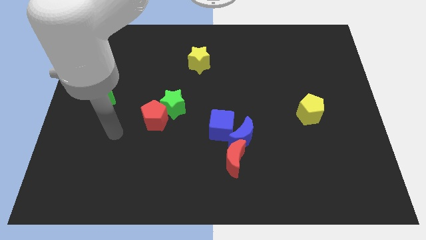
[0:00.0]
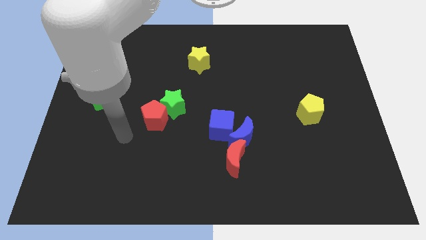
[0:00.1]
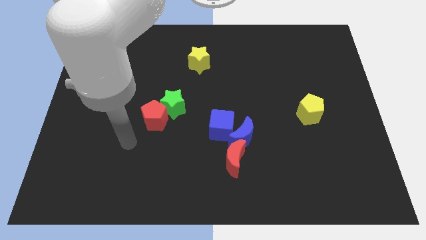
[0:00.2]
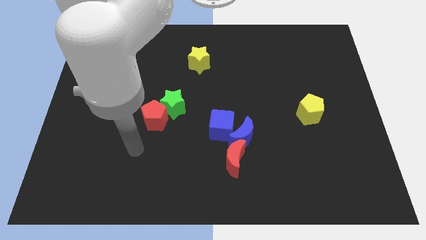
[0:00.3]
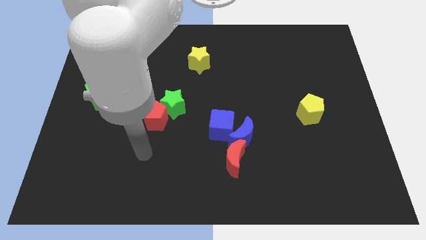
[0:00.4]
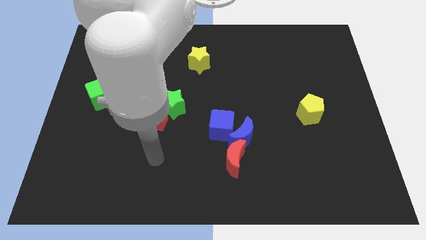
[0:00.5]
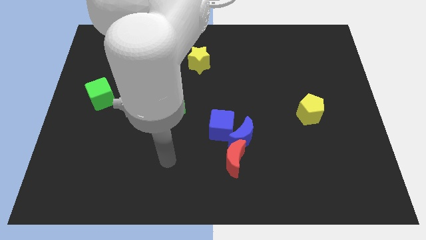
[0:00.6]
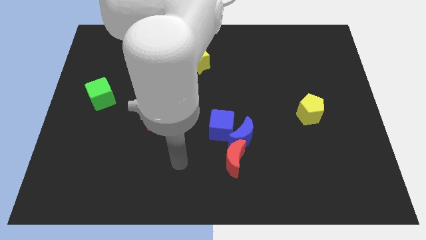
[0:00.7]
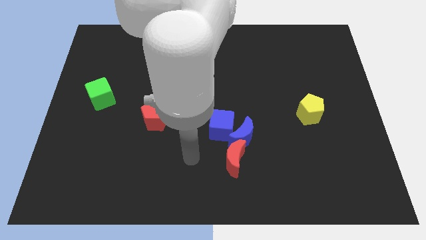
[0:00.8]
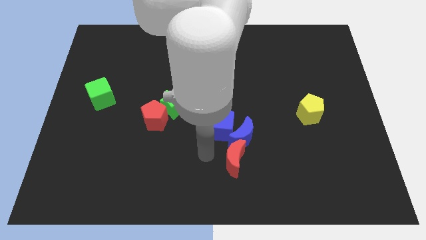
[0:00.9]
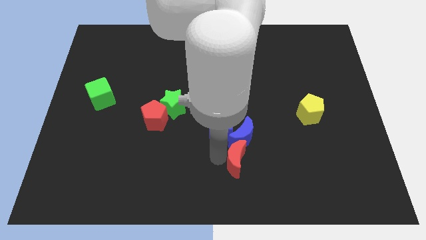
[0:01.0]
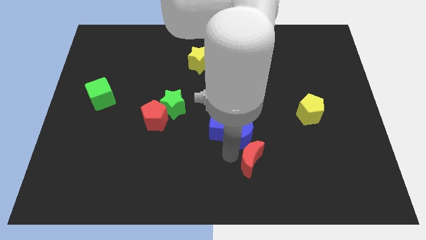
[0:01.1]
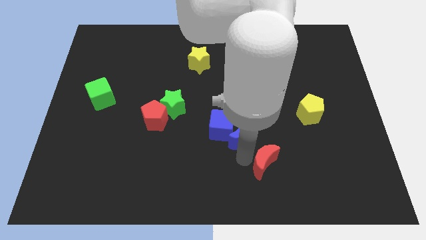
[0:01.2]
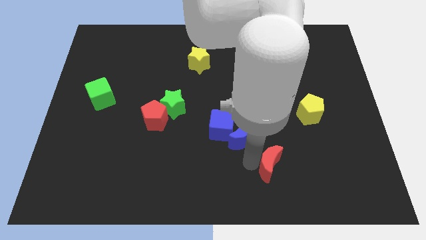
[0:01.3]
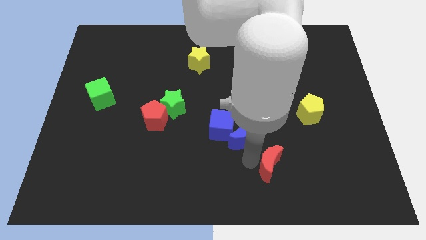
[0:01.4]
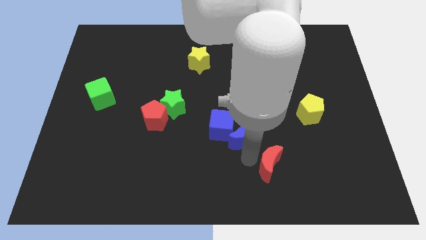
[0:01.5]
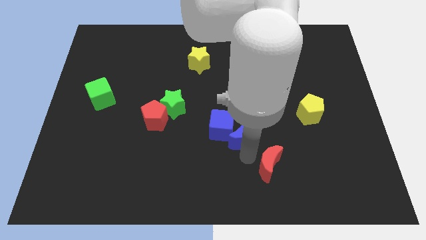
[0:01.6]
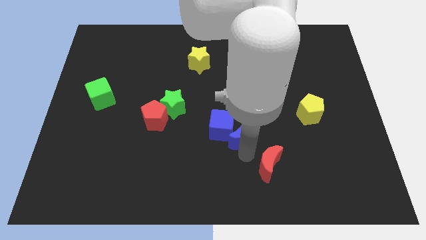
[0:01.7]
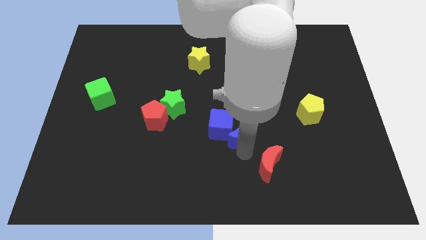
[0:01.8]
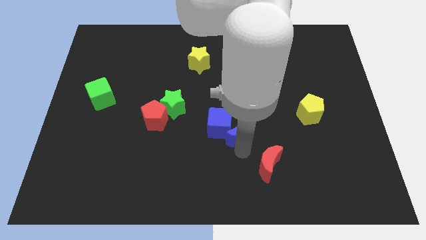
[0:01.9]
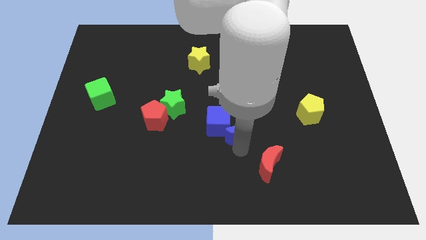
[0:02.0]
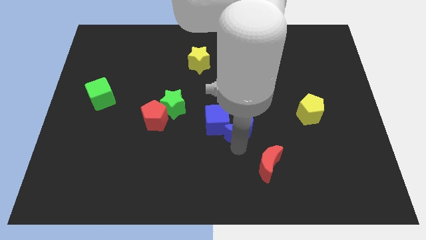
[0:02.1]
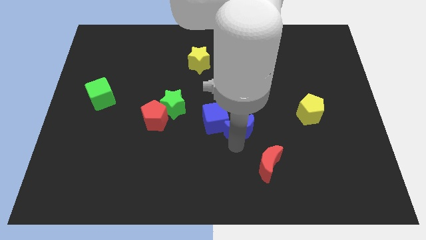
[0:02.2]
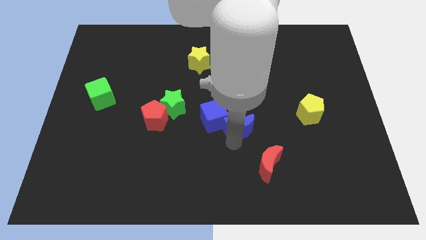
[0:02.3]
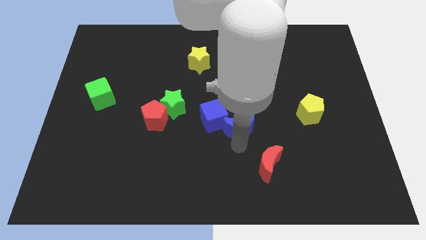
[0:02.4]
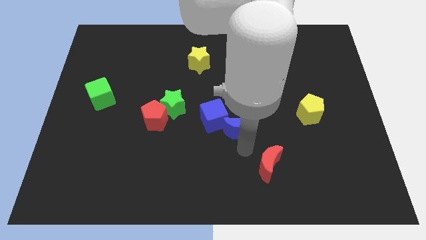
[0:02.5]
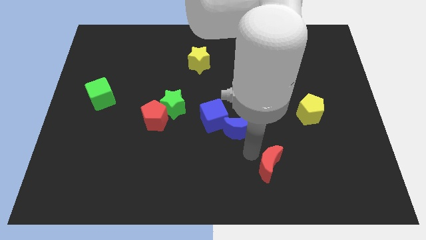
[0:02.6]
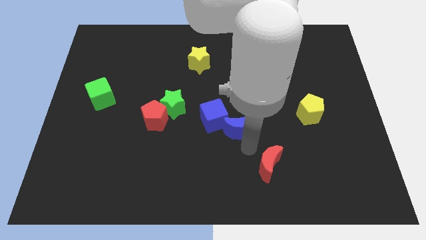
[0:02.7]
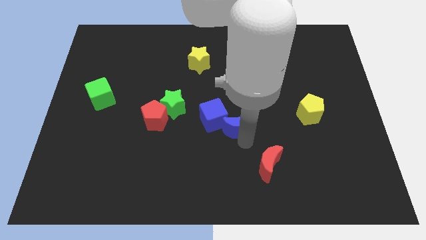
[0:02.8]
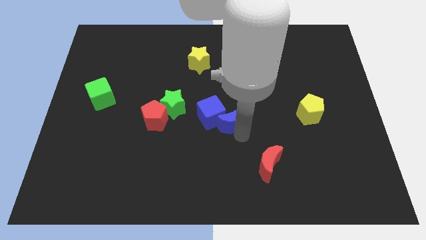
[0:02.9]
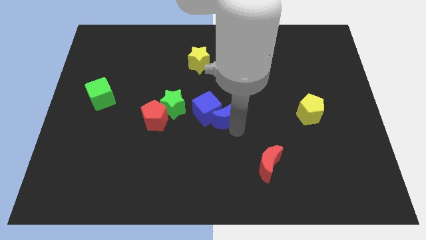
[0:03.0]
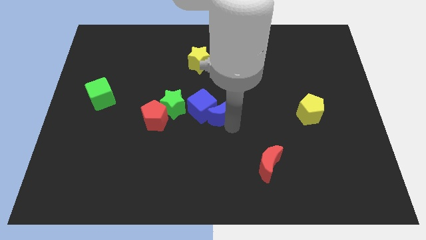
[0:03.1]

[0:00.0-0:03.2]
slide the blue moon upwards and to the left diagonally a little

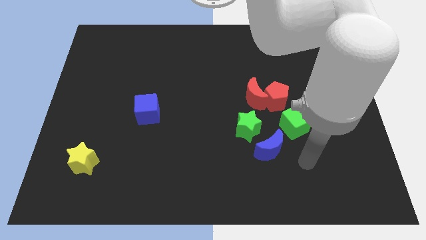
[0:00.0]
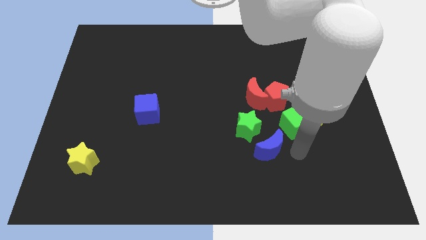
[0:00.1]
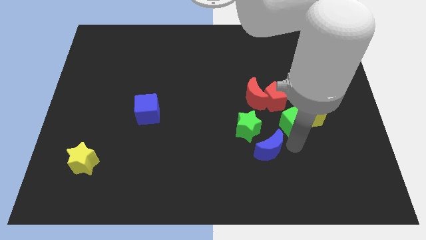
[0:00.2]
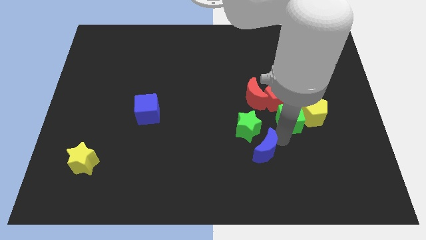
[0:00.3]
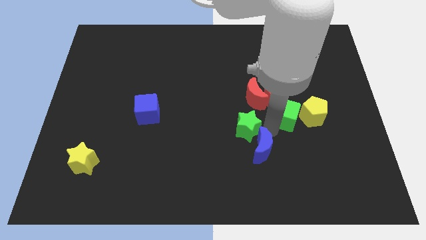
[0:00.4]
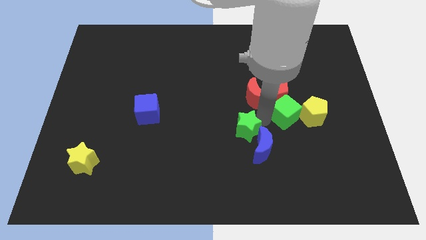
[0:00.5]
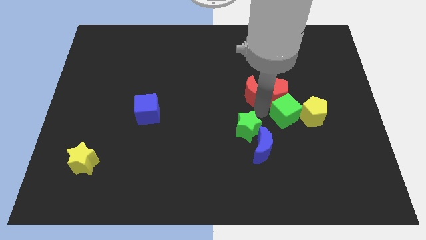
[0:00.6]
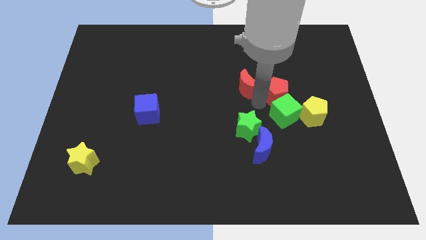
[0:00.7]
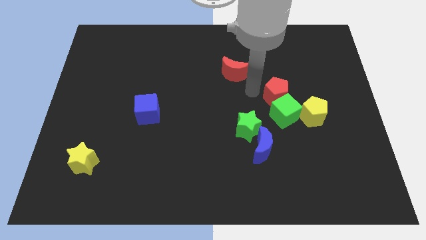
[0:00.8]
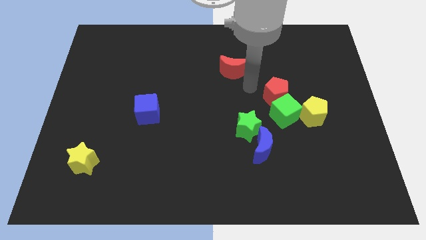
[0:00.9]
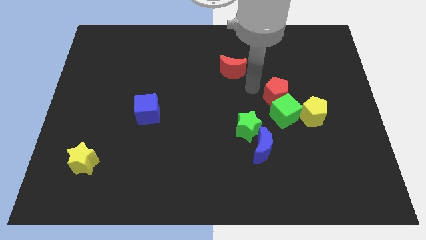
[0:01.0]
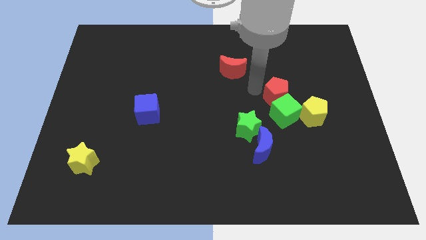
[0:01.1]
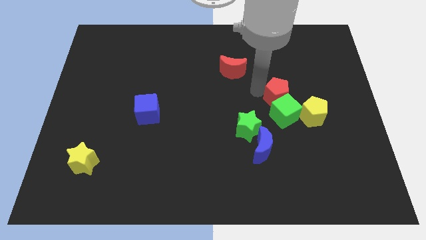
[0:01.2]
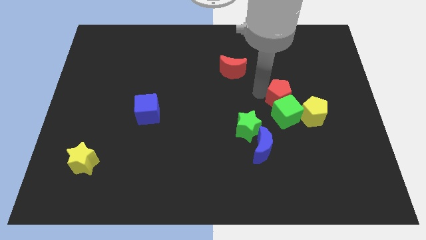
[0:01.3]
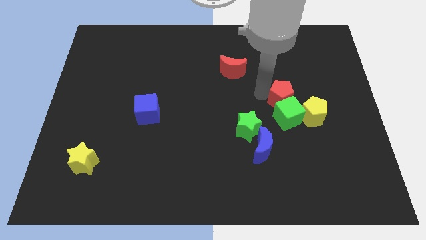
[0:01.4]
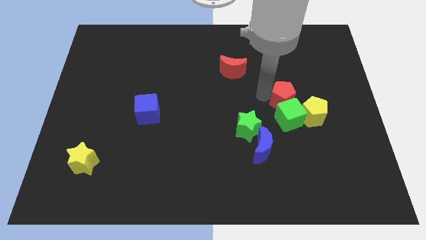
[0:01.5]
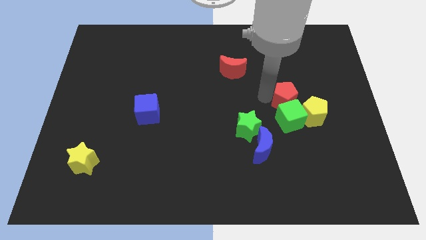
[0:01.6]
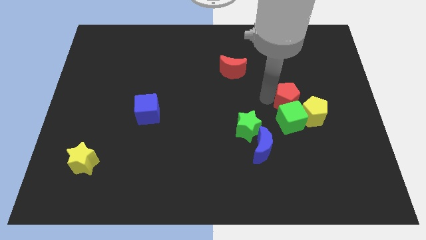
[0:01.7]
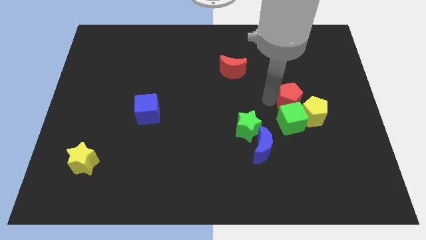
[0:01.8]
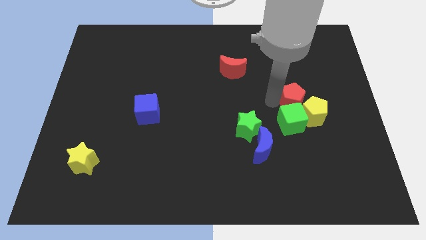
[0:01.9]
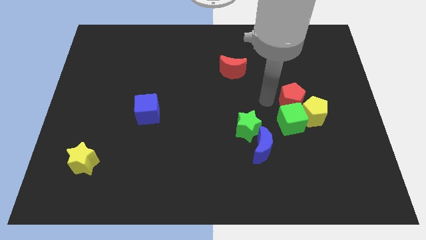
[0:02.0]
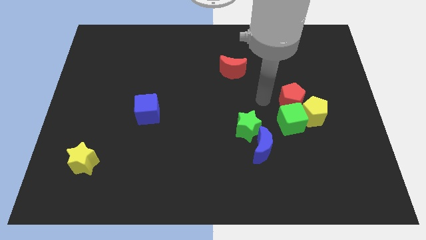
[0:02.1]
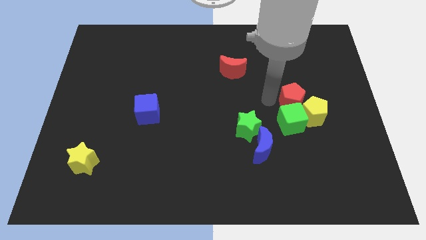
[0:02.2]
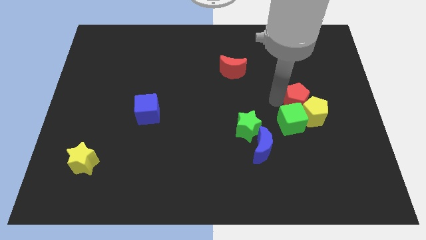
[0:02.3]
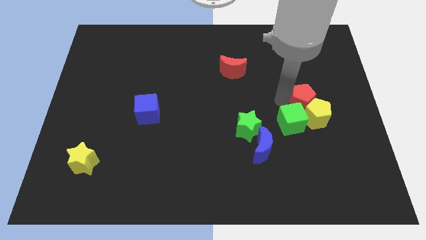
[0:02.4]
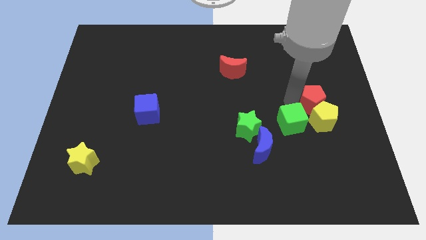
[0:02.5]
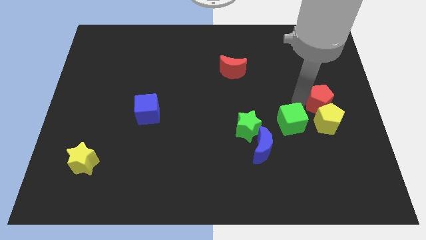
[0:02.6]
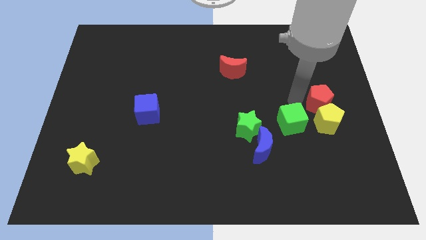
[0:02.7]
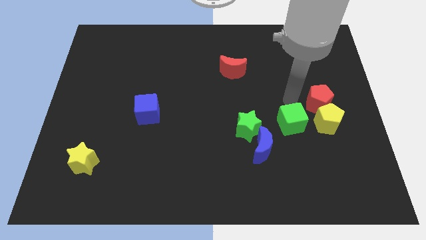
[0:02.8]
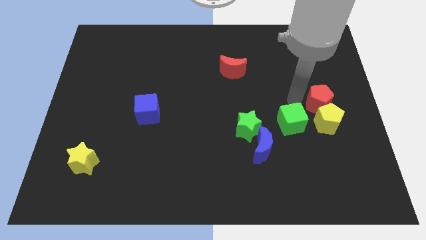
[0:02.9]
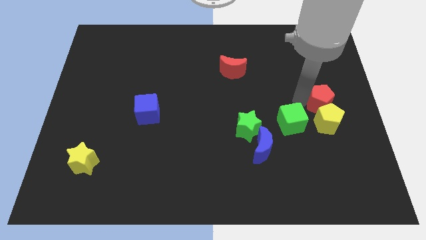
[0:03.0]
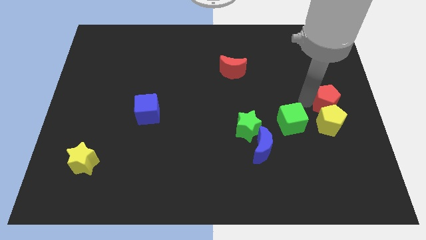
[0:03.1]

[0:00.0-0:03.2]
slightly push the red pentagon down and right

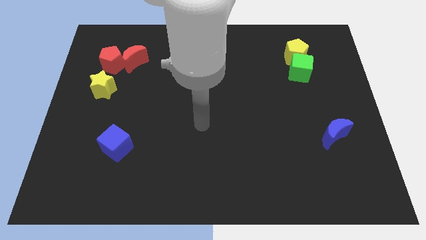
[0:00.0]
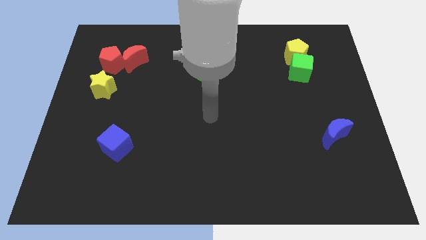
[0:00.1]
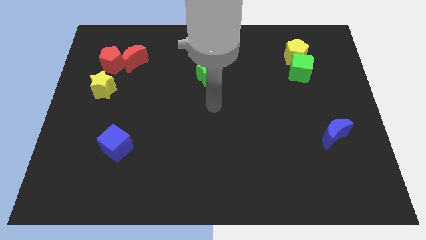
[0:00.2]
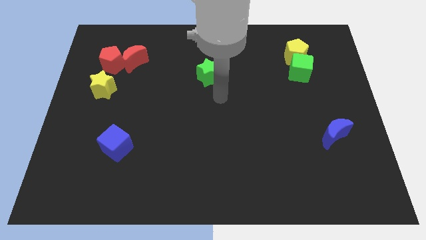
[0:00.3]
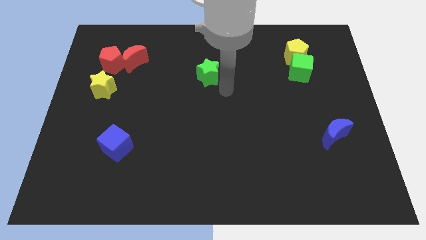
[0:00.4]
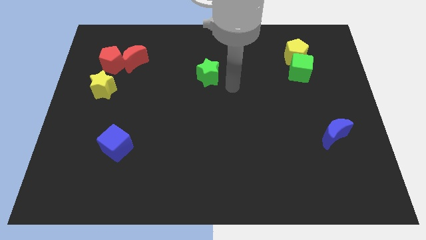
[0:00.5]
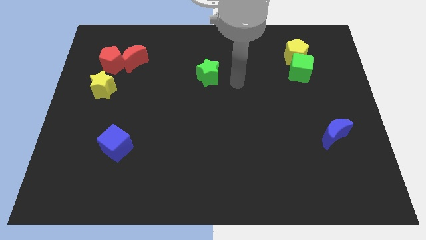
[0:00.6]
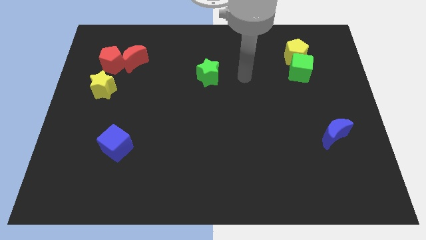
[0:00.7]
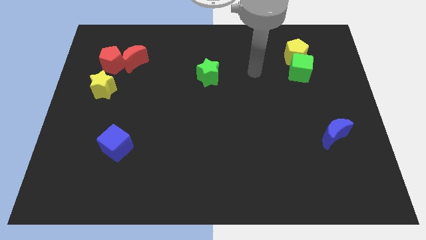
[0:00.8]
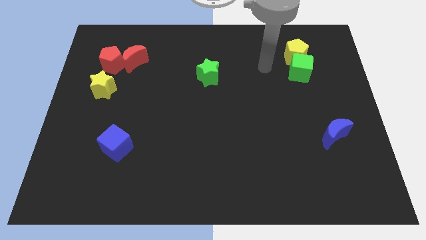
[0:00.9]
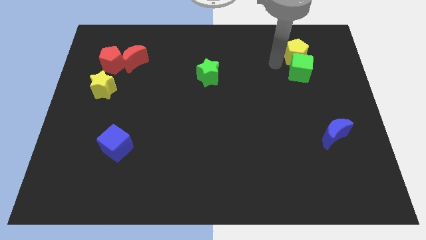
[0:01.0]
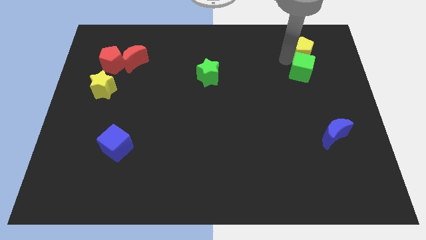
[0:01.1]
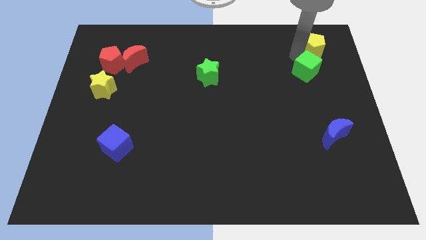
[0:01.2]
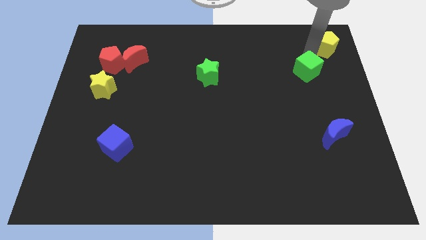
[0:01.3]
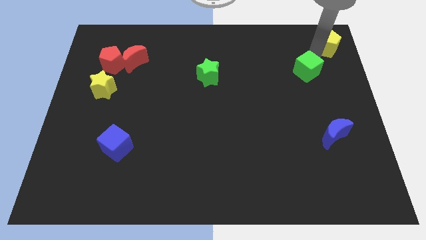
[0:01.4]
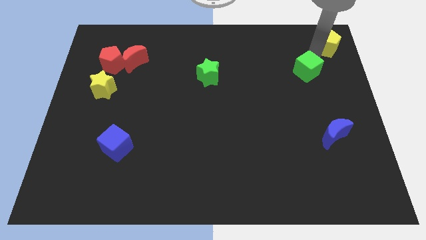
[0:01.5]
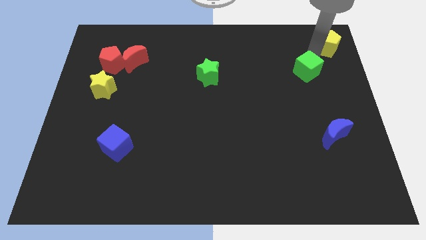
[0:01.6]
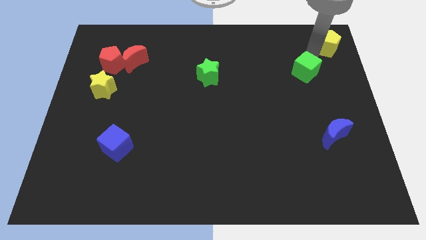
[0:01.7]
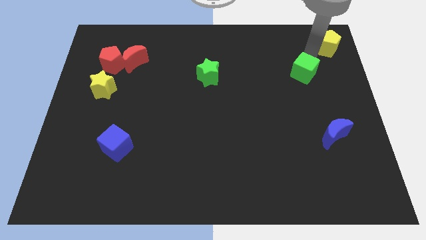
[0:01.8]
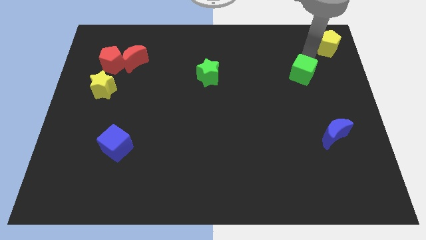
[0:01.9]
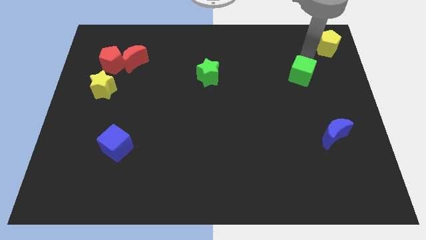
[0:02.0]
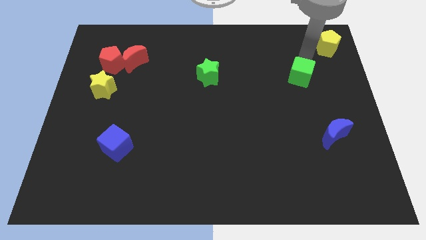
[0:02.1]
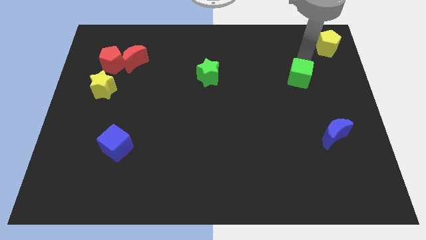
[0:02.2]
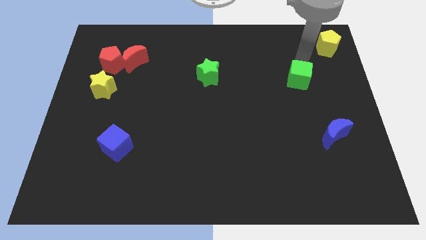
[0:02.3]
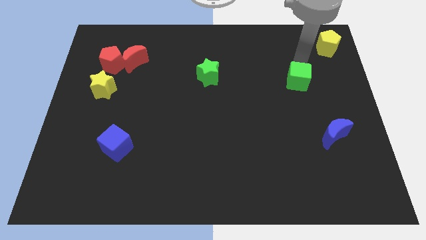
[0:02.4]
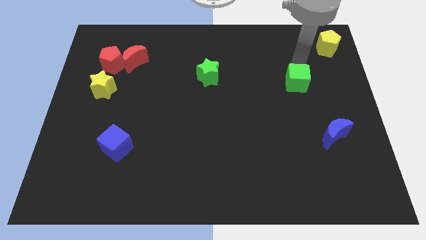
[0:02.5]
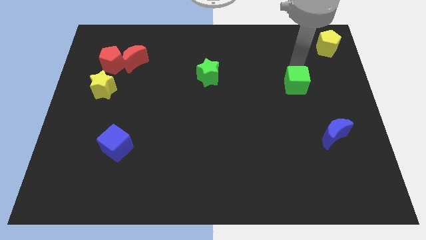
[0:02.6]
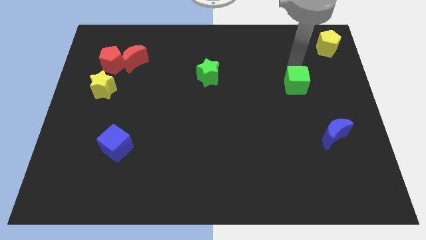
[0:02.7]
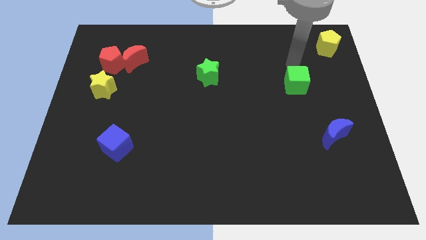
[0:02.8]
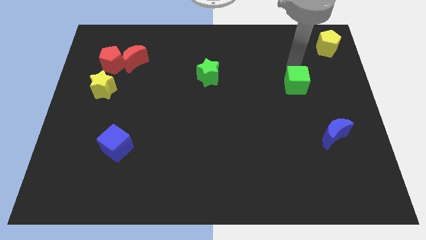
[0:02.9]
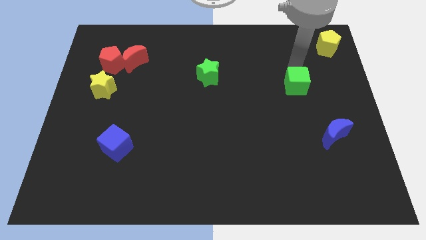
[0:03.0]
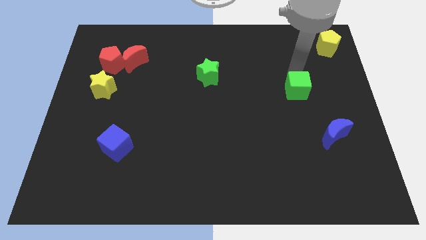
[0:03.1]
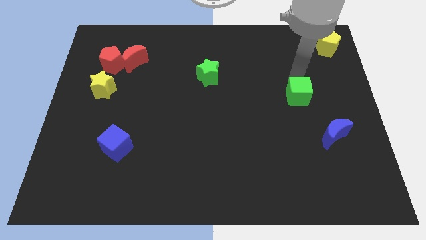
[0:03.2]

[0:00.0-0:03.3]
push the green cube down a little bit
